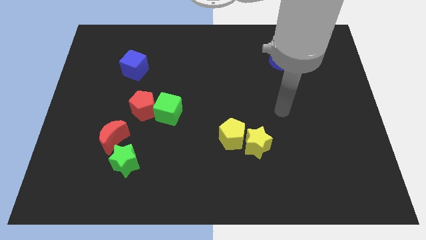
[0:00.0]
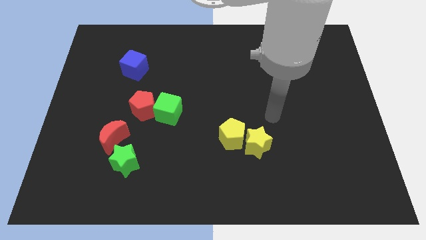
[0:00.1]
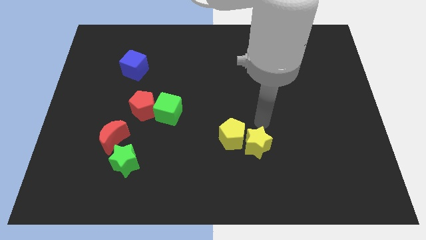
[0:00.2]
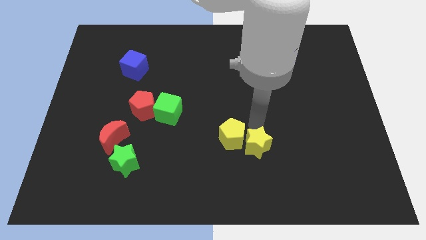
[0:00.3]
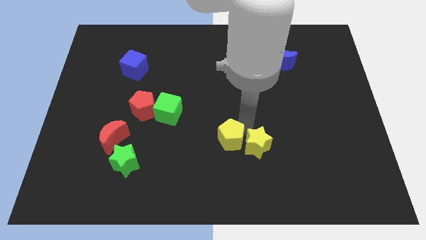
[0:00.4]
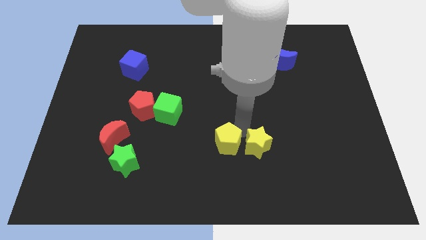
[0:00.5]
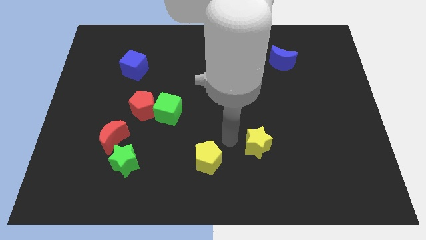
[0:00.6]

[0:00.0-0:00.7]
pull the yellow star apart from the yellow pentagon

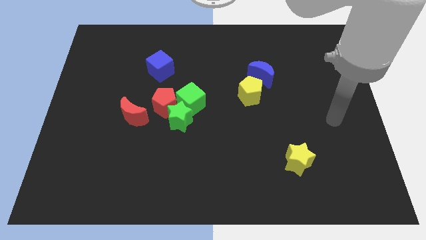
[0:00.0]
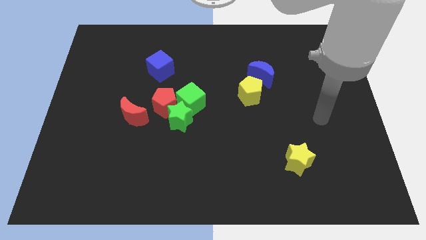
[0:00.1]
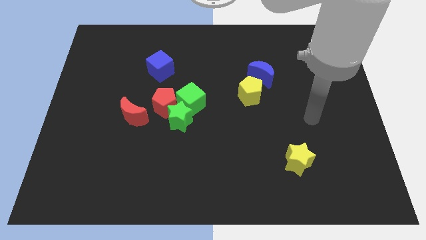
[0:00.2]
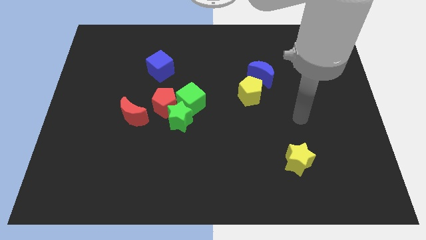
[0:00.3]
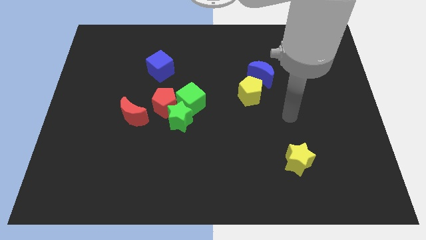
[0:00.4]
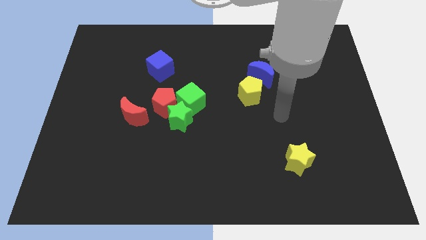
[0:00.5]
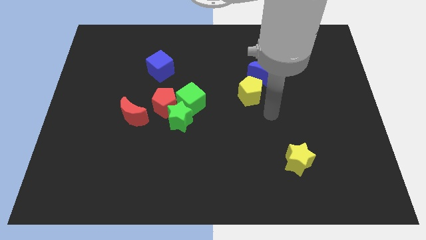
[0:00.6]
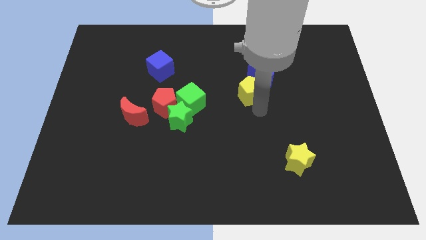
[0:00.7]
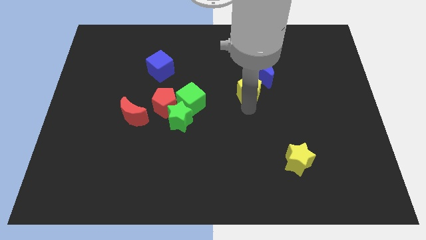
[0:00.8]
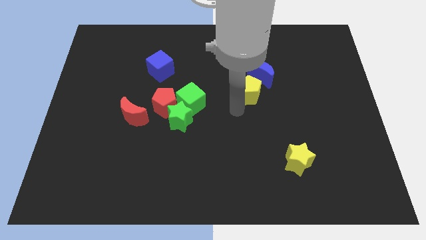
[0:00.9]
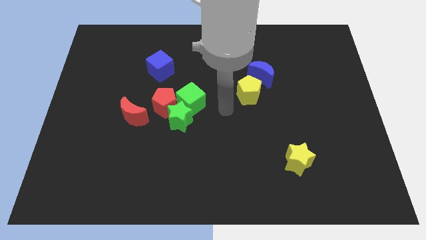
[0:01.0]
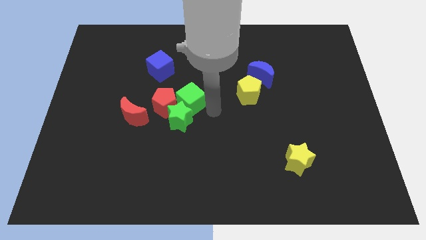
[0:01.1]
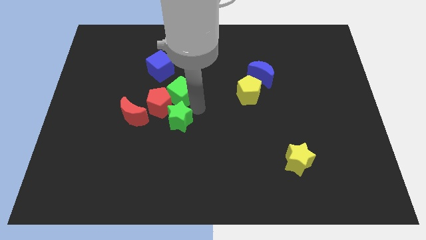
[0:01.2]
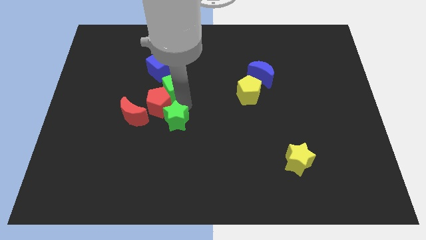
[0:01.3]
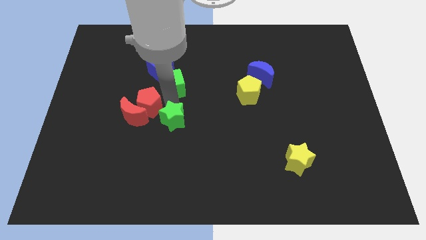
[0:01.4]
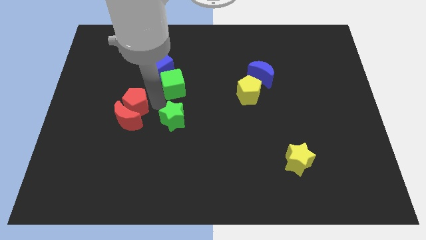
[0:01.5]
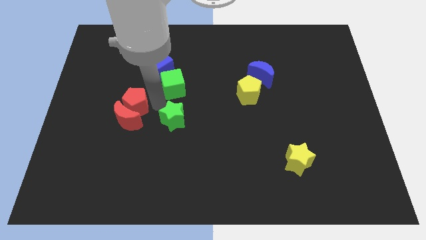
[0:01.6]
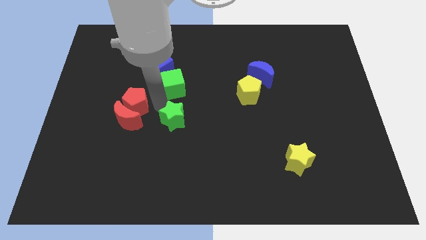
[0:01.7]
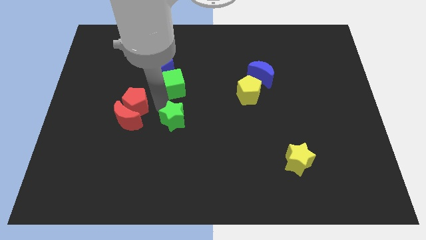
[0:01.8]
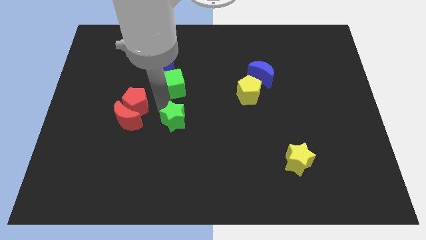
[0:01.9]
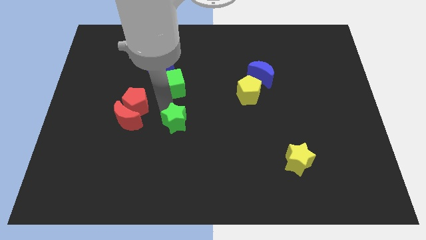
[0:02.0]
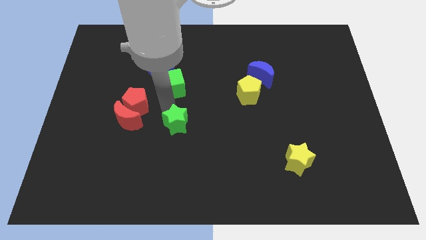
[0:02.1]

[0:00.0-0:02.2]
separate the green star from the red pentagon and green cube

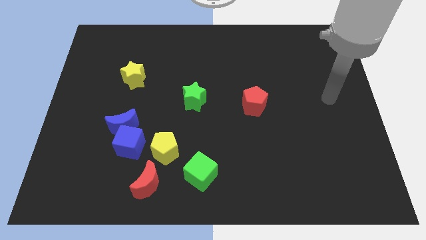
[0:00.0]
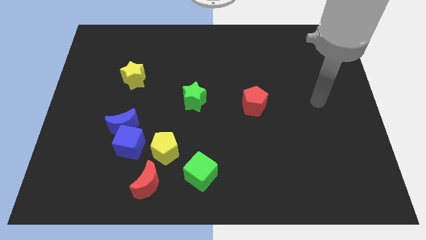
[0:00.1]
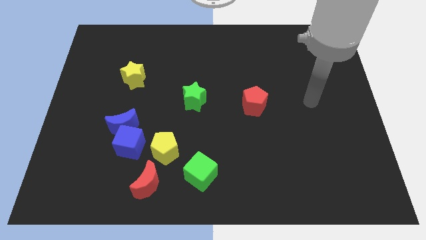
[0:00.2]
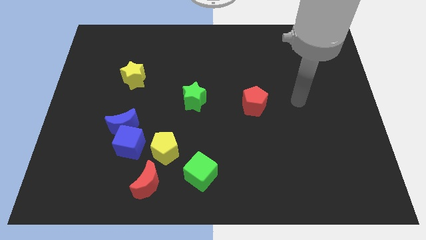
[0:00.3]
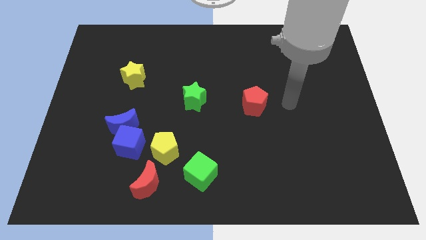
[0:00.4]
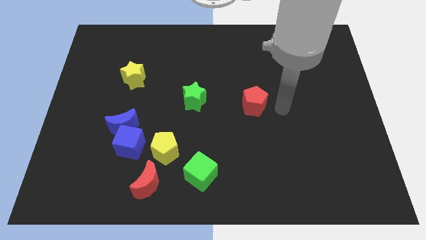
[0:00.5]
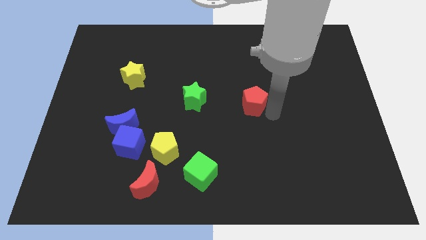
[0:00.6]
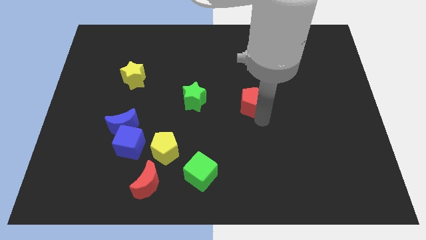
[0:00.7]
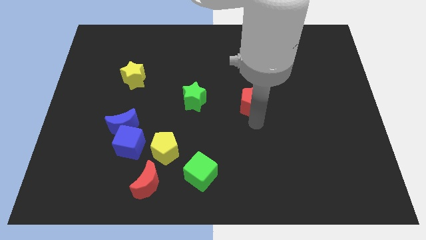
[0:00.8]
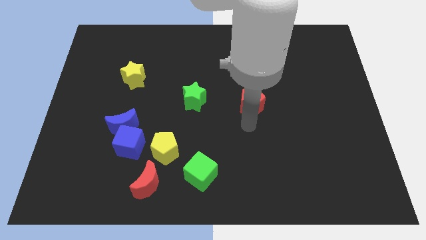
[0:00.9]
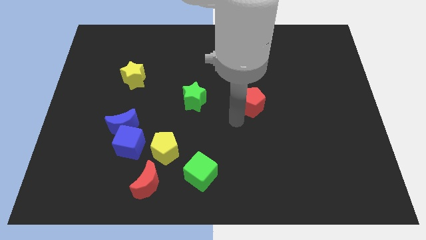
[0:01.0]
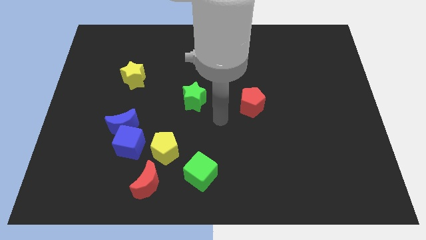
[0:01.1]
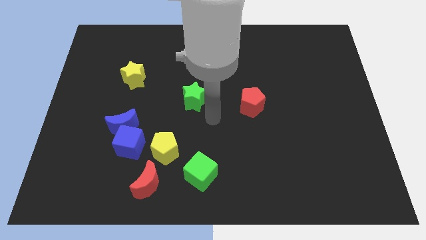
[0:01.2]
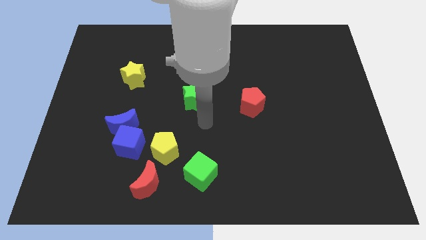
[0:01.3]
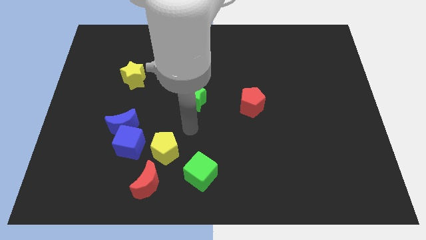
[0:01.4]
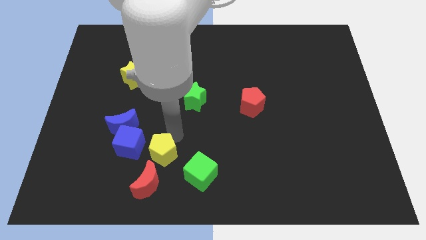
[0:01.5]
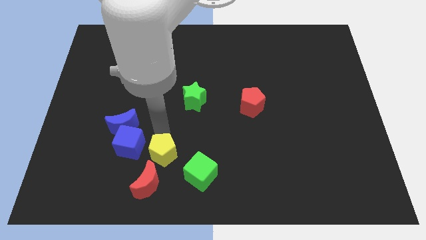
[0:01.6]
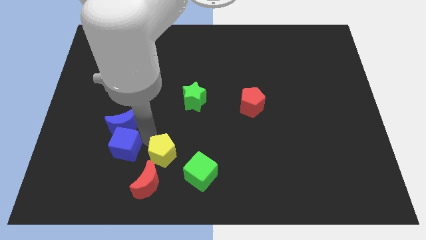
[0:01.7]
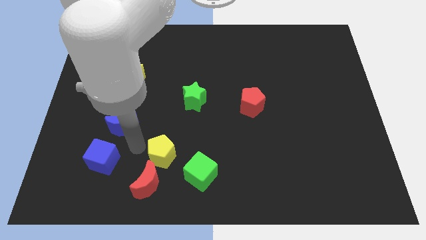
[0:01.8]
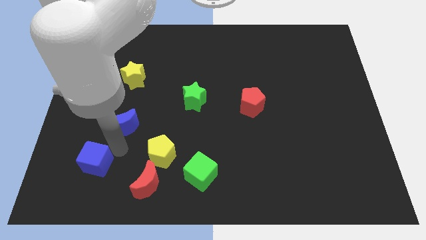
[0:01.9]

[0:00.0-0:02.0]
move the blue moon away from the blue cube

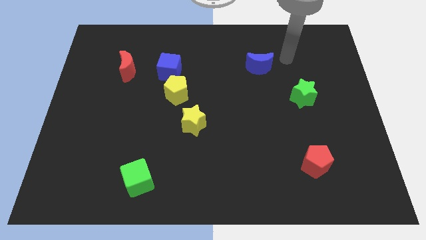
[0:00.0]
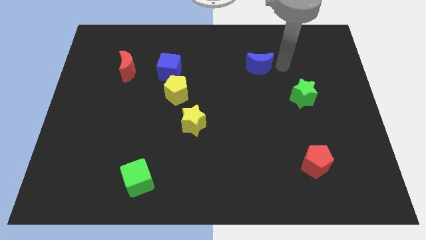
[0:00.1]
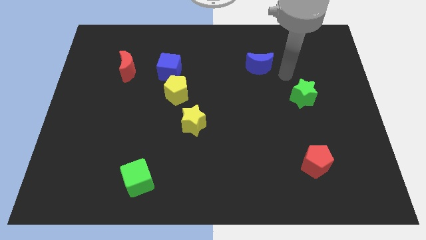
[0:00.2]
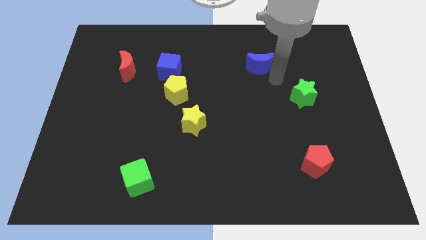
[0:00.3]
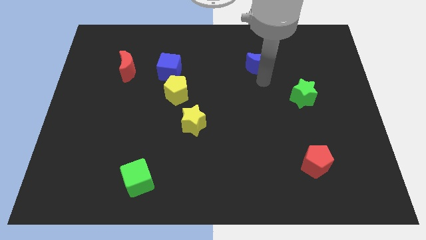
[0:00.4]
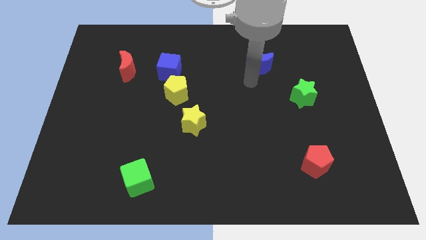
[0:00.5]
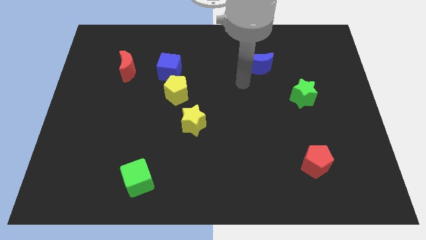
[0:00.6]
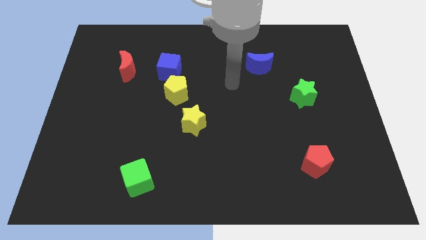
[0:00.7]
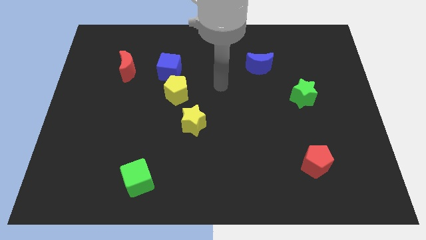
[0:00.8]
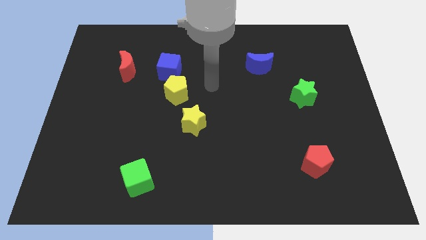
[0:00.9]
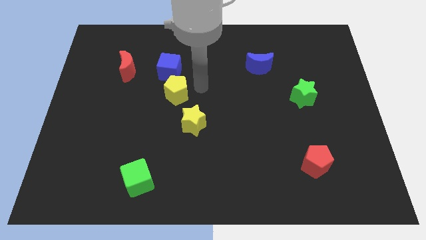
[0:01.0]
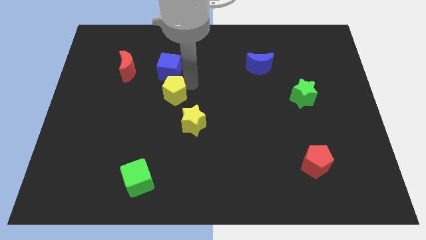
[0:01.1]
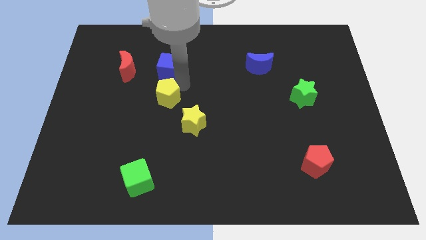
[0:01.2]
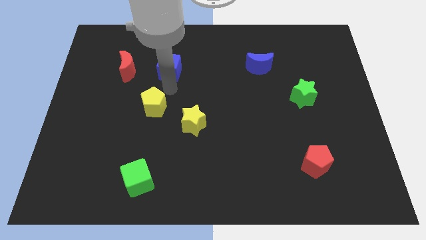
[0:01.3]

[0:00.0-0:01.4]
pull the blue cube apart from the yellow pentagon

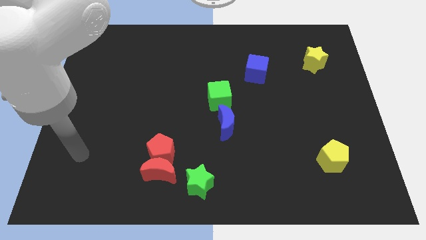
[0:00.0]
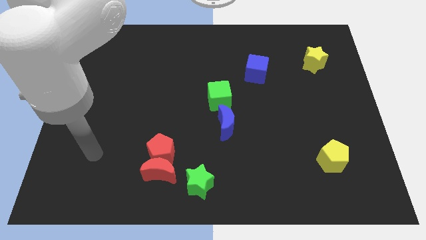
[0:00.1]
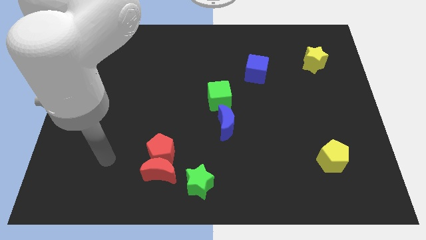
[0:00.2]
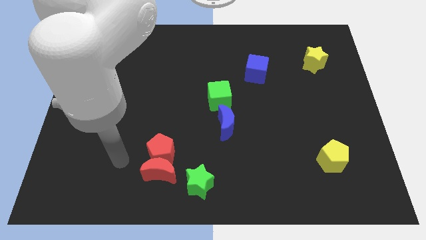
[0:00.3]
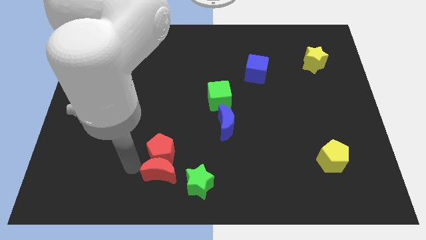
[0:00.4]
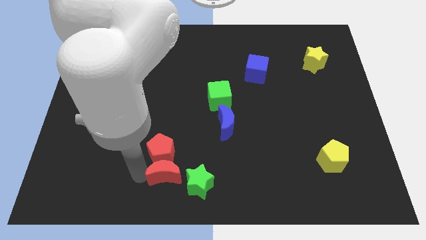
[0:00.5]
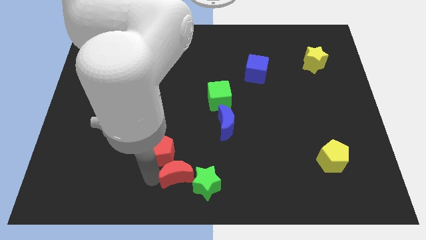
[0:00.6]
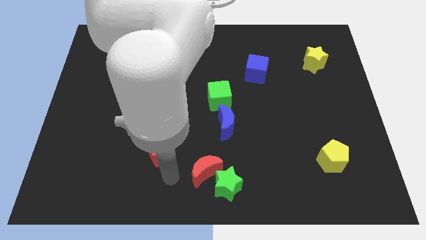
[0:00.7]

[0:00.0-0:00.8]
separate the red pentagon from the red moon

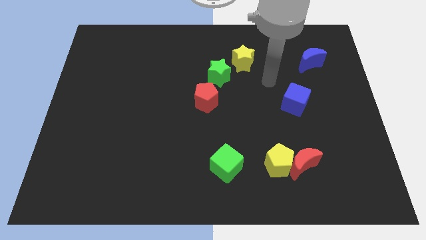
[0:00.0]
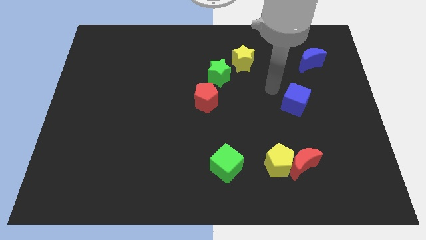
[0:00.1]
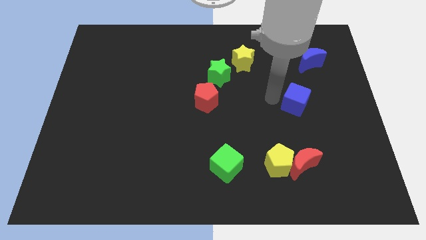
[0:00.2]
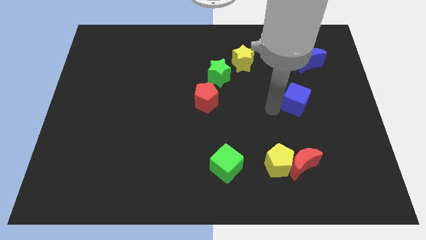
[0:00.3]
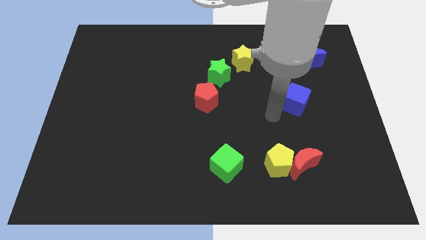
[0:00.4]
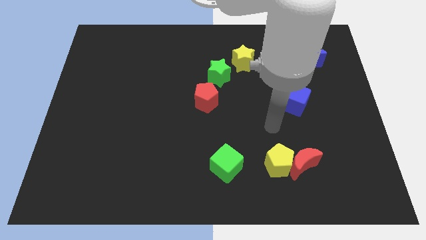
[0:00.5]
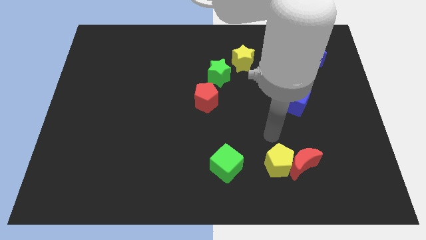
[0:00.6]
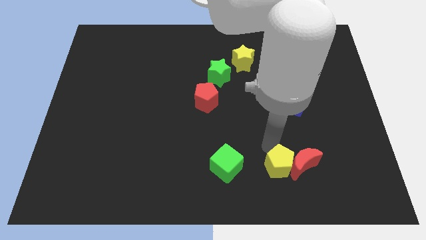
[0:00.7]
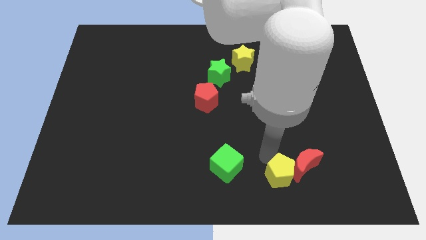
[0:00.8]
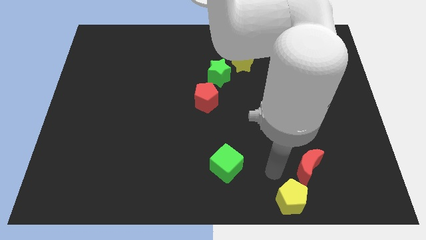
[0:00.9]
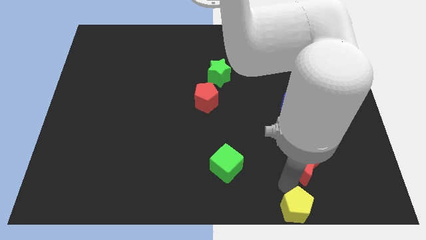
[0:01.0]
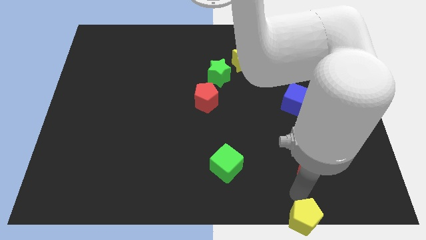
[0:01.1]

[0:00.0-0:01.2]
separate the red moon from the yellow pentagon

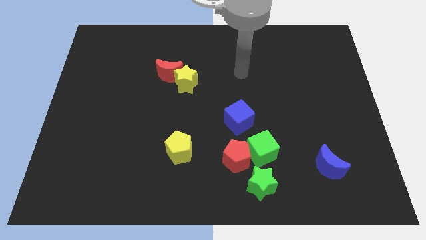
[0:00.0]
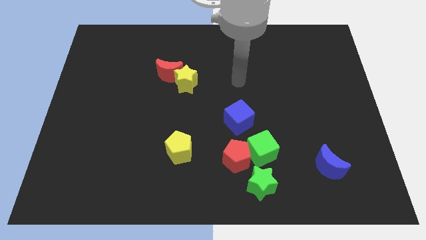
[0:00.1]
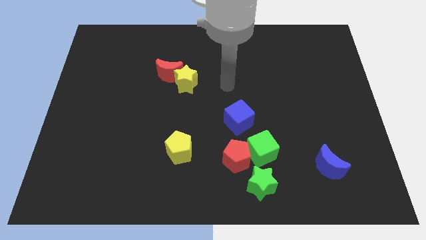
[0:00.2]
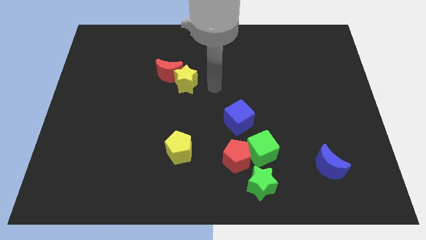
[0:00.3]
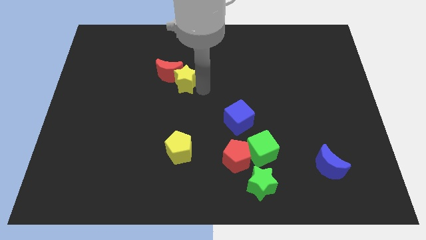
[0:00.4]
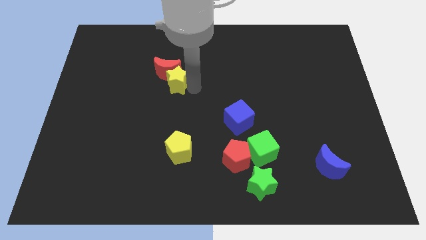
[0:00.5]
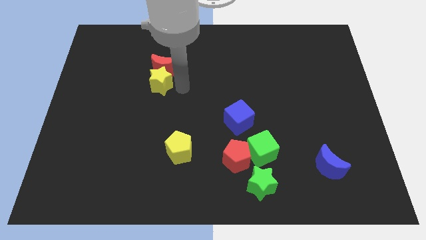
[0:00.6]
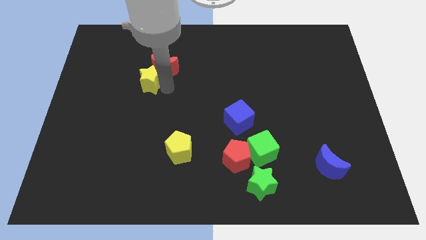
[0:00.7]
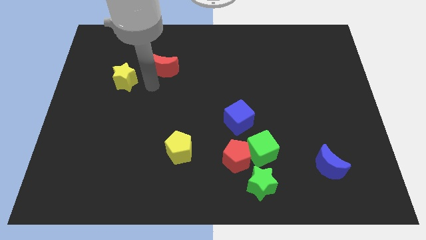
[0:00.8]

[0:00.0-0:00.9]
move the red moon away from the yellow star

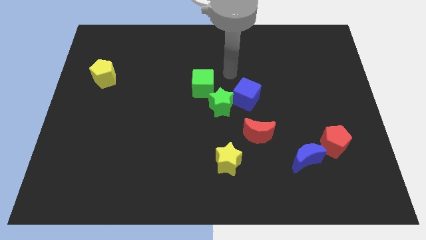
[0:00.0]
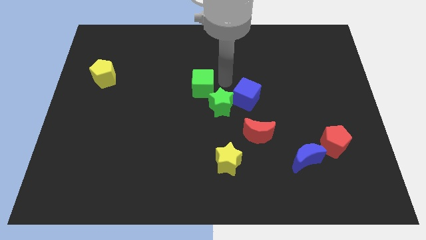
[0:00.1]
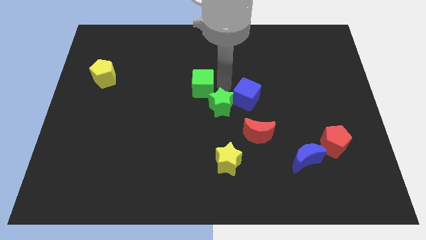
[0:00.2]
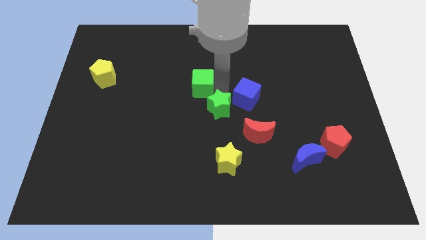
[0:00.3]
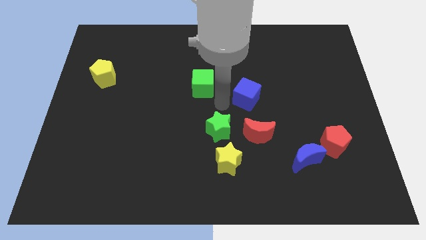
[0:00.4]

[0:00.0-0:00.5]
move the blue cube away from the green star
